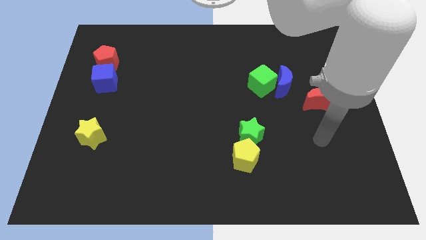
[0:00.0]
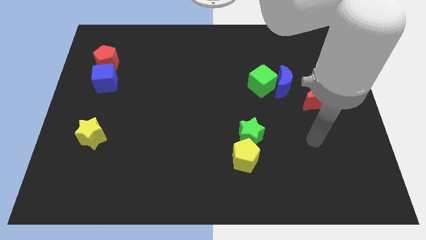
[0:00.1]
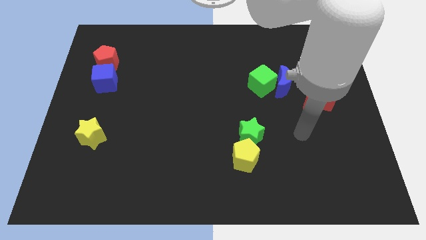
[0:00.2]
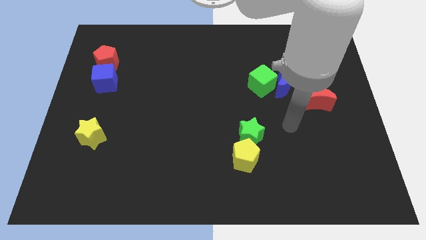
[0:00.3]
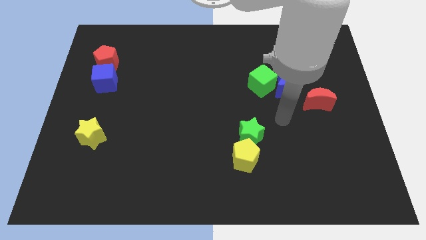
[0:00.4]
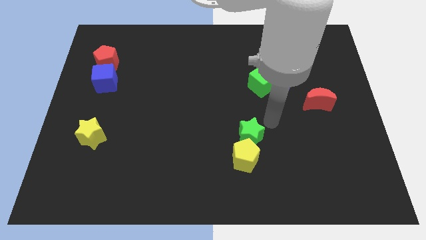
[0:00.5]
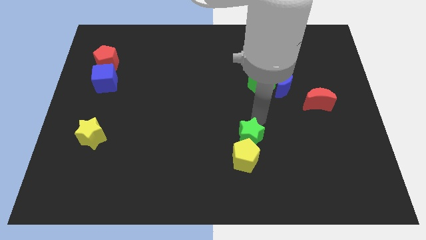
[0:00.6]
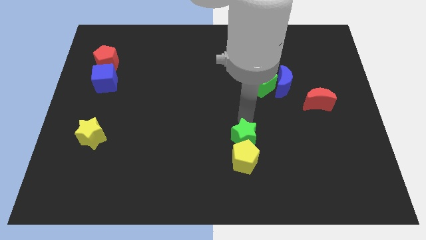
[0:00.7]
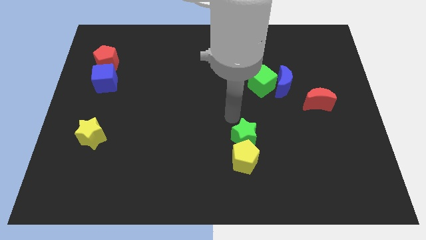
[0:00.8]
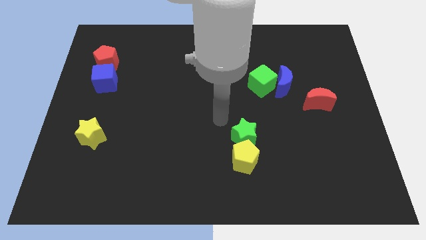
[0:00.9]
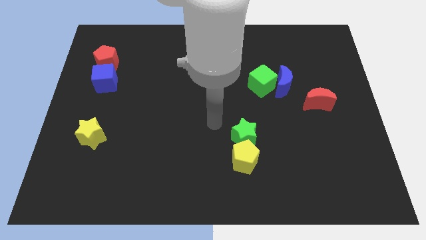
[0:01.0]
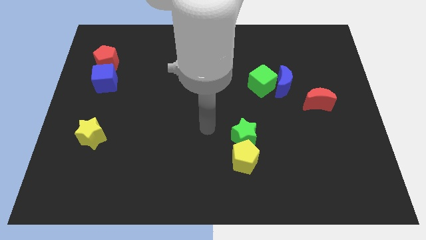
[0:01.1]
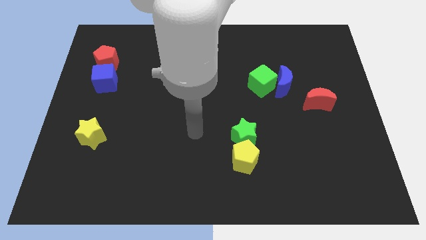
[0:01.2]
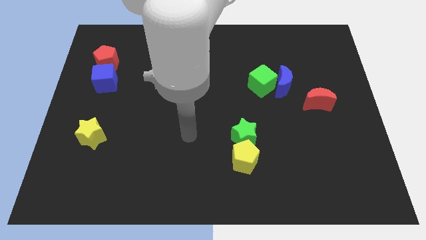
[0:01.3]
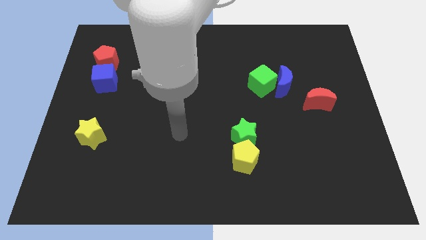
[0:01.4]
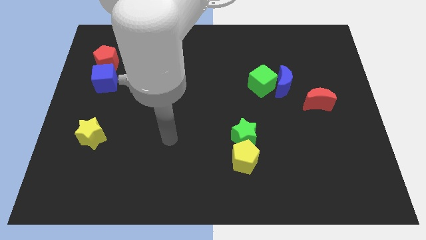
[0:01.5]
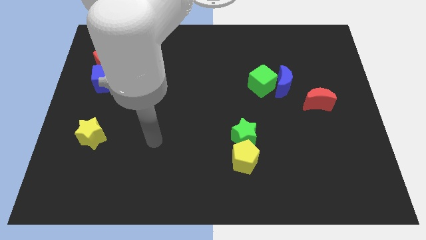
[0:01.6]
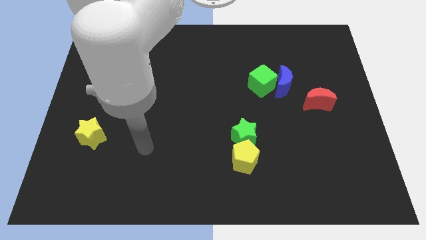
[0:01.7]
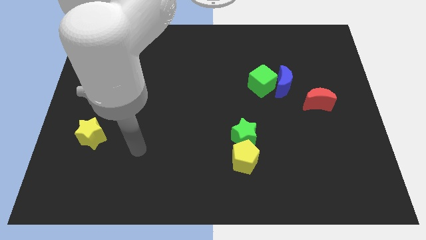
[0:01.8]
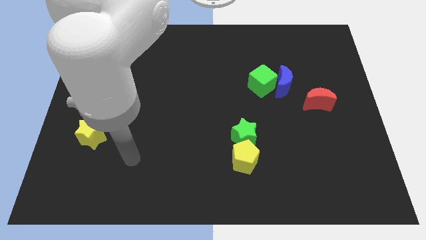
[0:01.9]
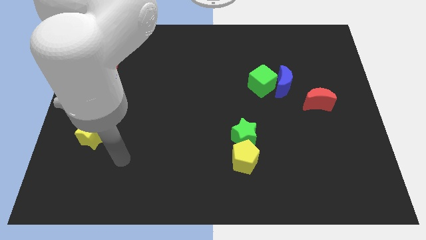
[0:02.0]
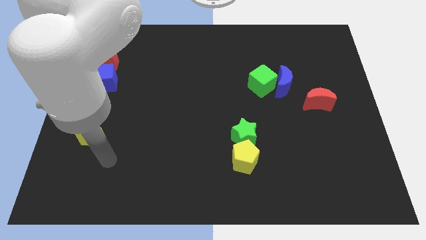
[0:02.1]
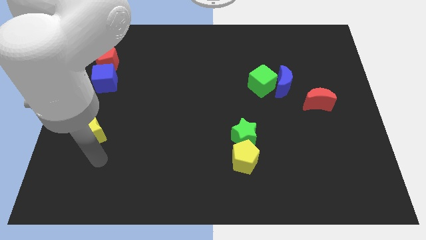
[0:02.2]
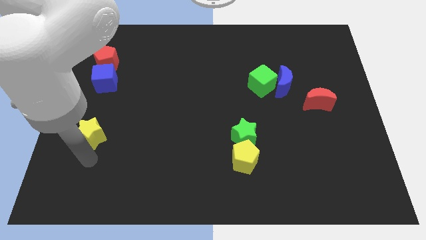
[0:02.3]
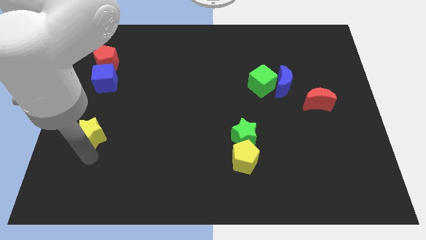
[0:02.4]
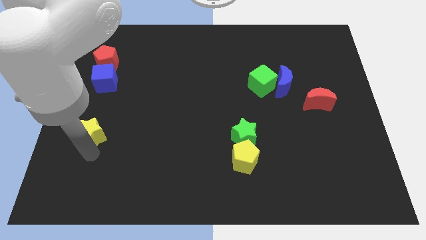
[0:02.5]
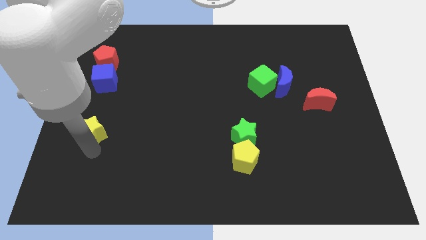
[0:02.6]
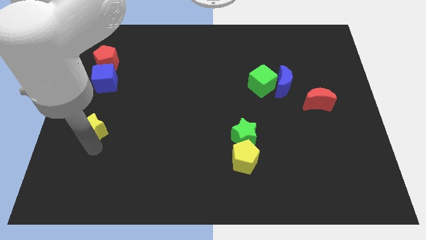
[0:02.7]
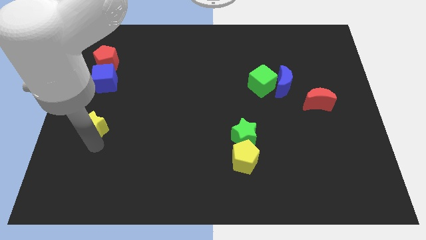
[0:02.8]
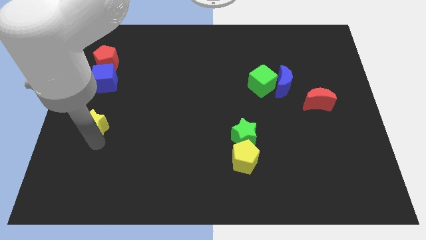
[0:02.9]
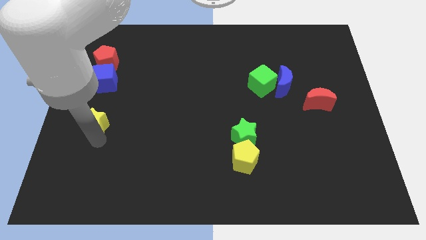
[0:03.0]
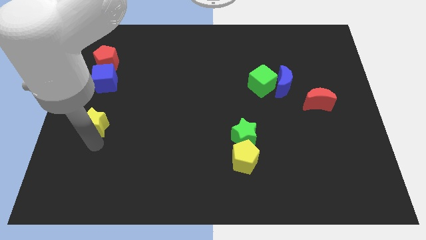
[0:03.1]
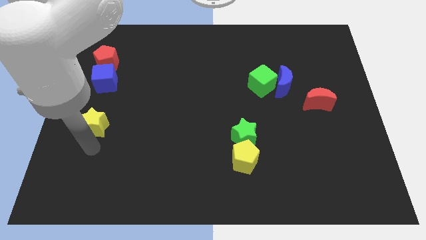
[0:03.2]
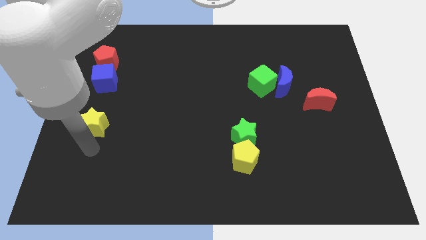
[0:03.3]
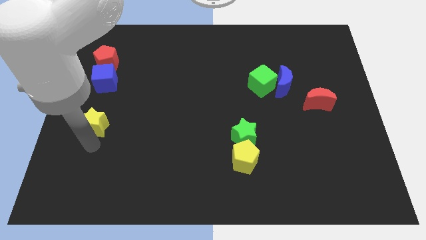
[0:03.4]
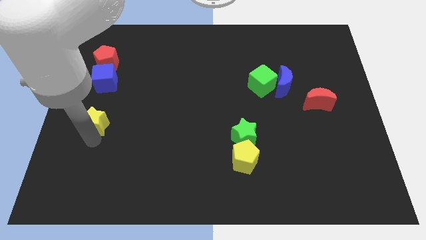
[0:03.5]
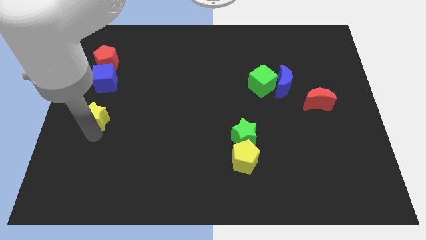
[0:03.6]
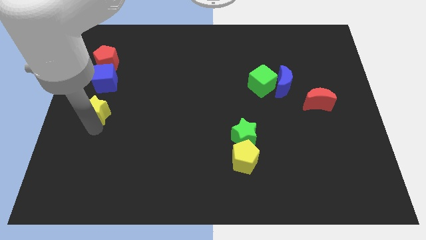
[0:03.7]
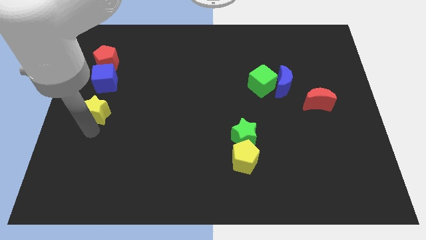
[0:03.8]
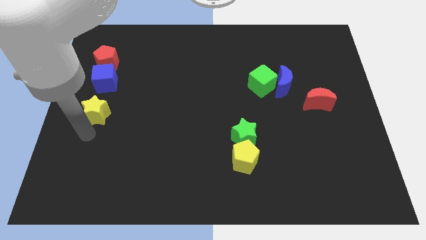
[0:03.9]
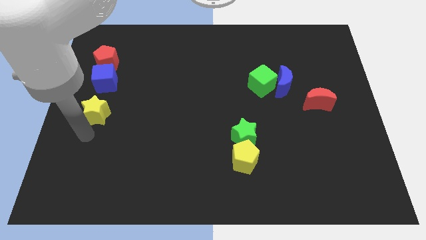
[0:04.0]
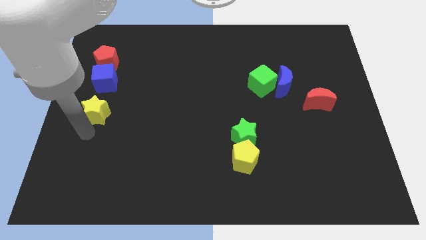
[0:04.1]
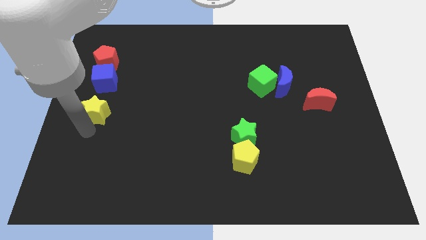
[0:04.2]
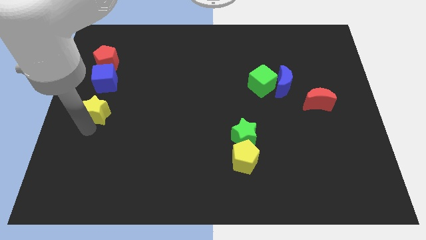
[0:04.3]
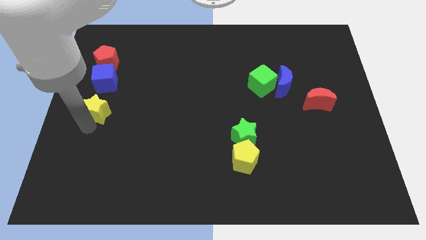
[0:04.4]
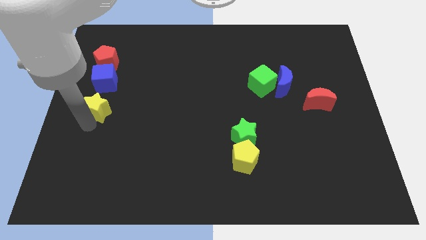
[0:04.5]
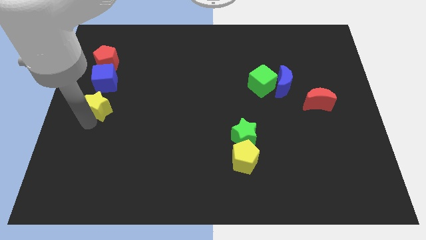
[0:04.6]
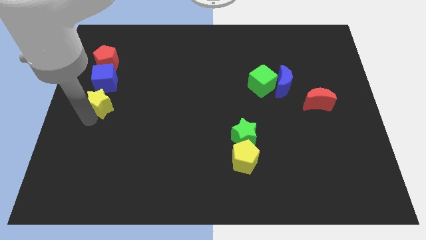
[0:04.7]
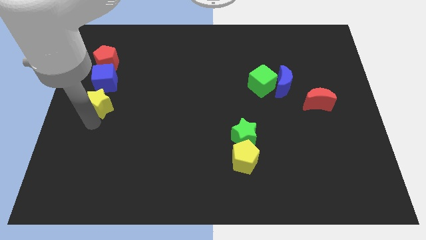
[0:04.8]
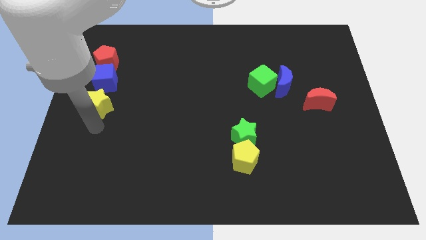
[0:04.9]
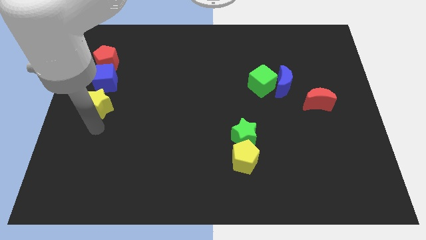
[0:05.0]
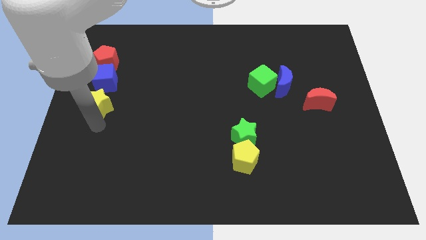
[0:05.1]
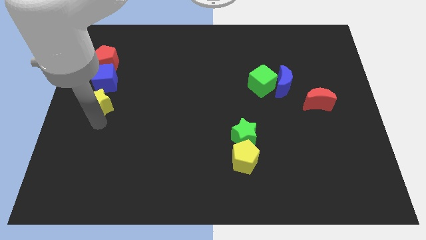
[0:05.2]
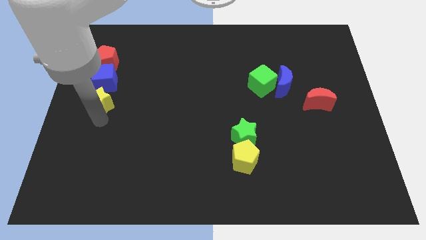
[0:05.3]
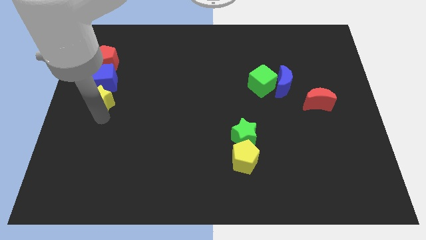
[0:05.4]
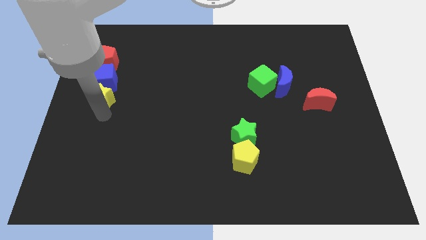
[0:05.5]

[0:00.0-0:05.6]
move the yellow star next to the blue cube

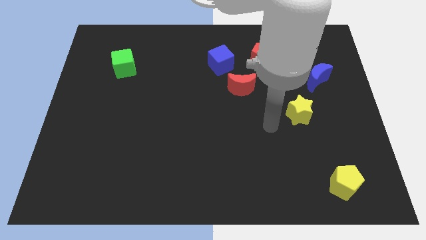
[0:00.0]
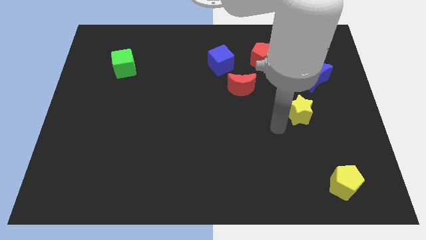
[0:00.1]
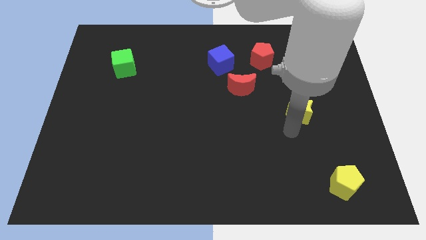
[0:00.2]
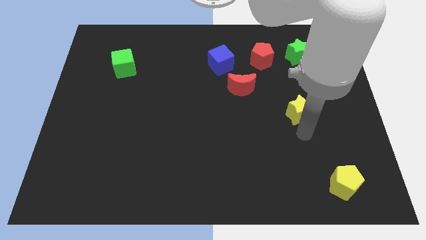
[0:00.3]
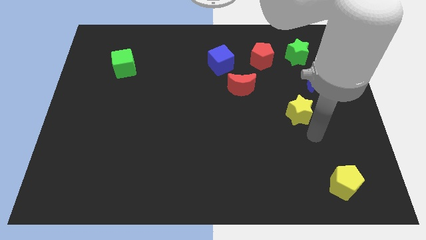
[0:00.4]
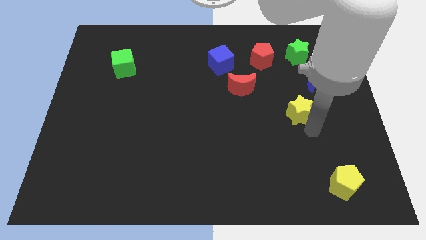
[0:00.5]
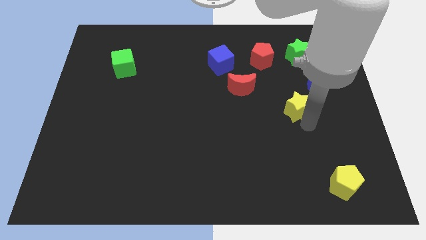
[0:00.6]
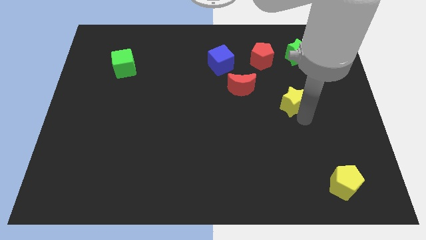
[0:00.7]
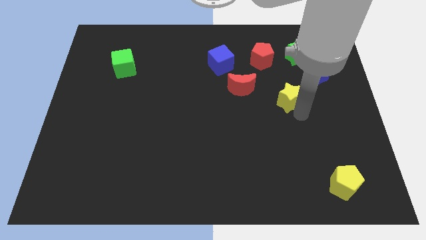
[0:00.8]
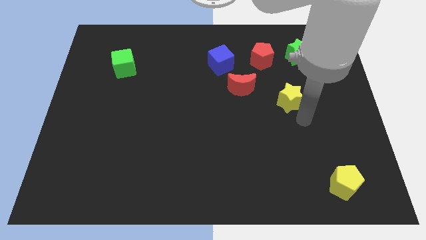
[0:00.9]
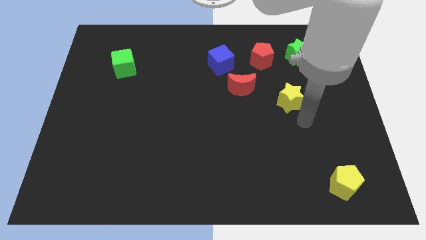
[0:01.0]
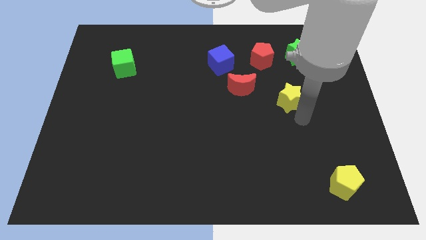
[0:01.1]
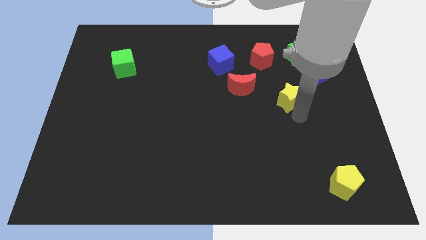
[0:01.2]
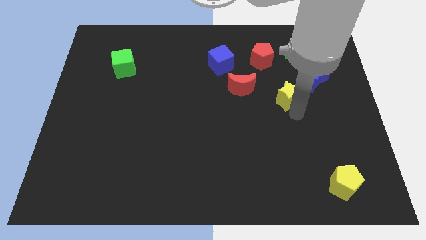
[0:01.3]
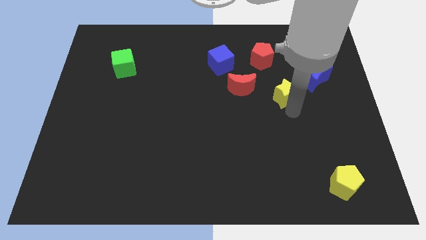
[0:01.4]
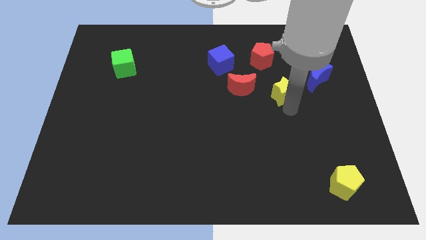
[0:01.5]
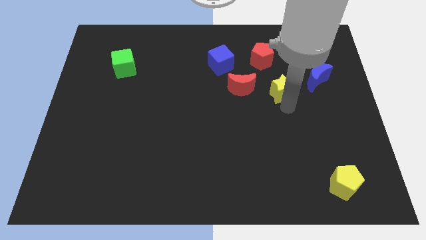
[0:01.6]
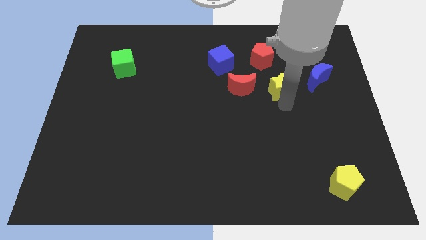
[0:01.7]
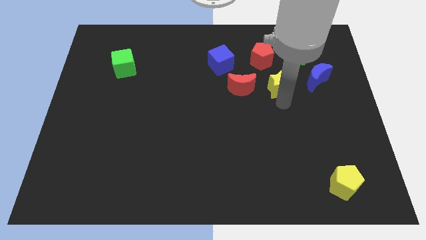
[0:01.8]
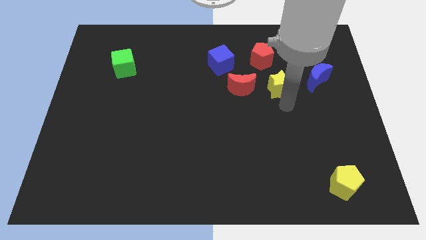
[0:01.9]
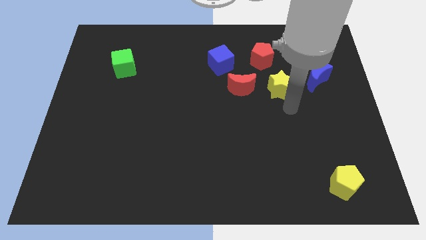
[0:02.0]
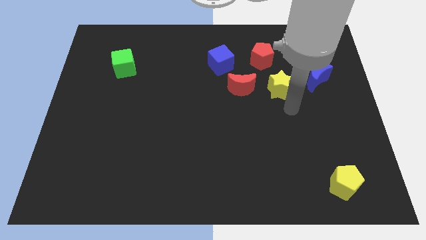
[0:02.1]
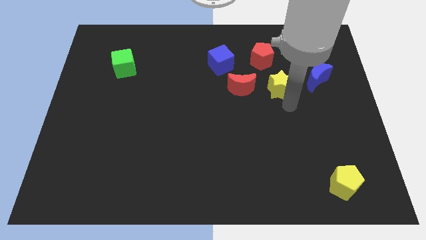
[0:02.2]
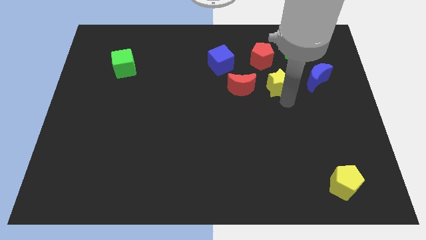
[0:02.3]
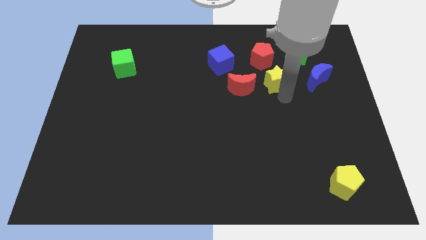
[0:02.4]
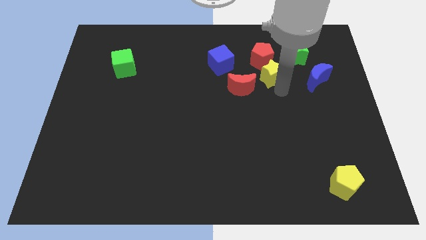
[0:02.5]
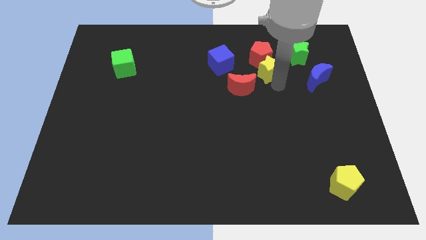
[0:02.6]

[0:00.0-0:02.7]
slide the yellow star next to the red pentagon
